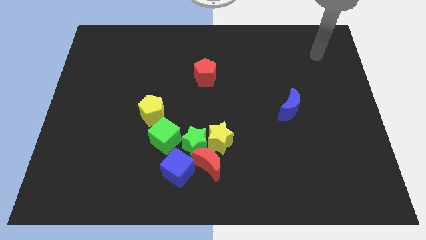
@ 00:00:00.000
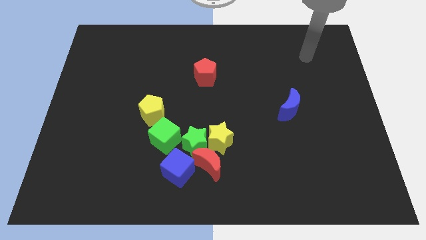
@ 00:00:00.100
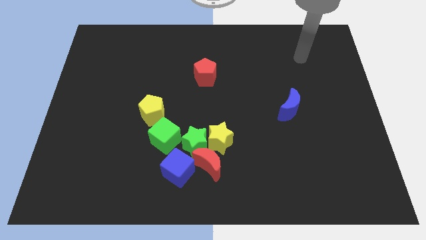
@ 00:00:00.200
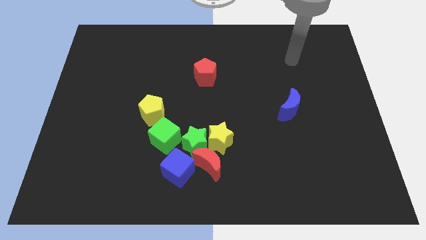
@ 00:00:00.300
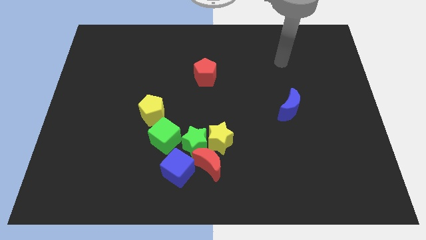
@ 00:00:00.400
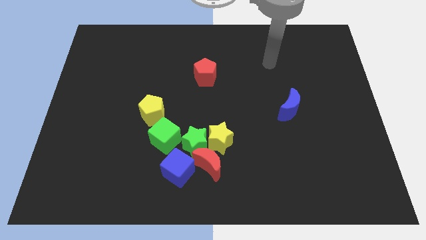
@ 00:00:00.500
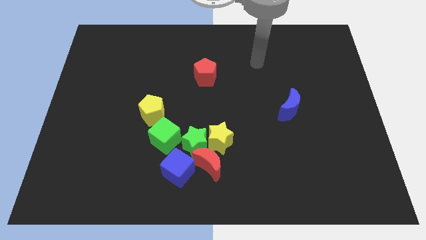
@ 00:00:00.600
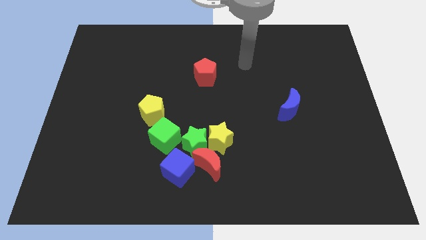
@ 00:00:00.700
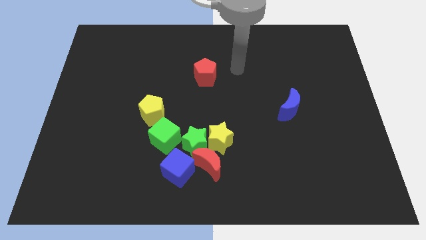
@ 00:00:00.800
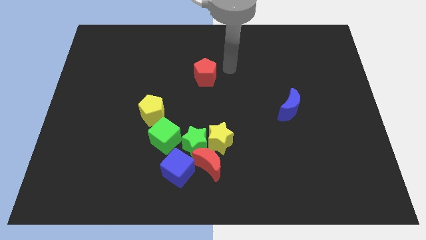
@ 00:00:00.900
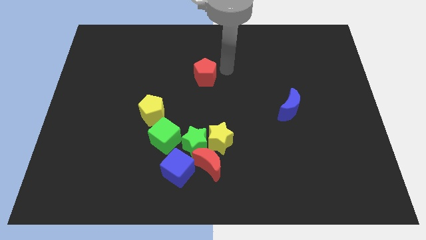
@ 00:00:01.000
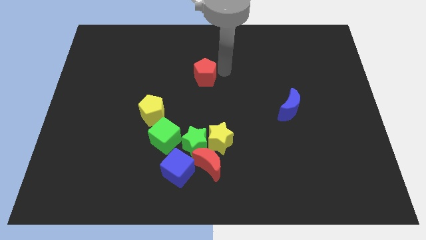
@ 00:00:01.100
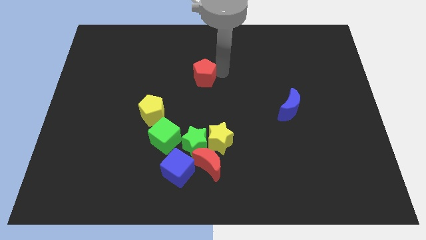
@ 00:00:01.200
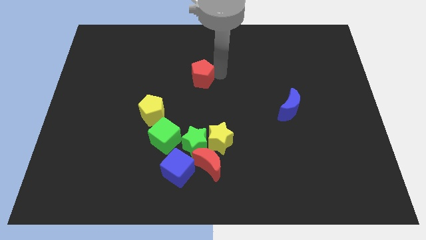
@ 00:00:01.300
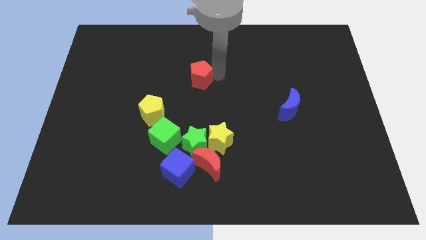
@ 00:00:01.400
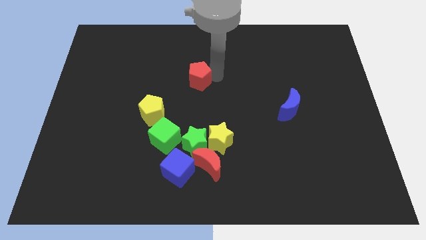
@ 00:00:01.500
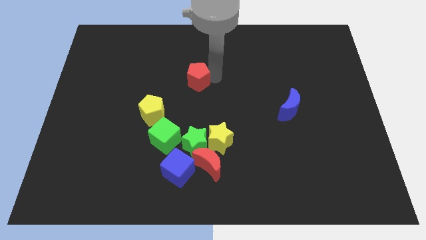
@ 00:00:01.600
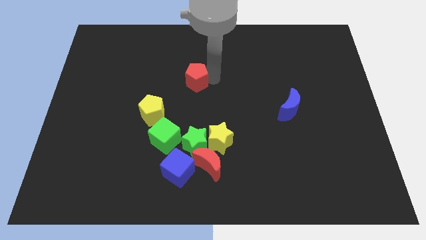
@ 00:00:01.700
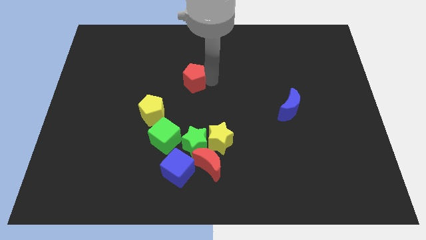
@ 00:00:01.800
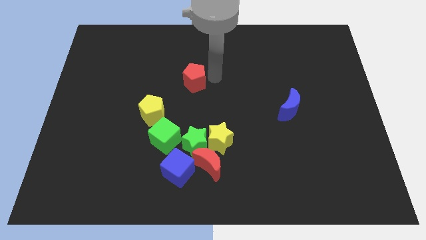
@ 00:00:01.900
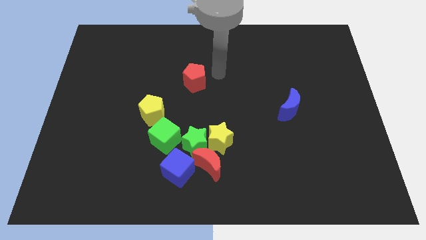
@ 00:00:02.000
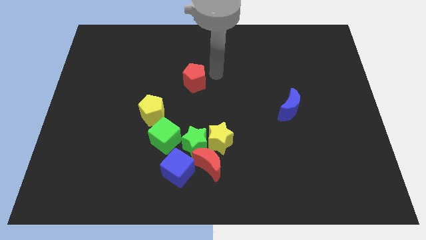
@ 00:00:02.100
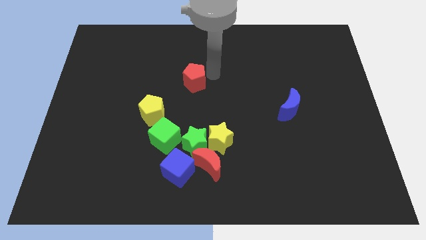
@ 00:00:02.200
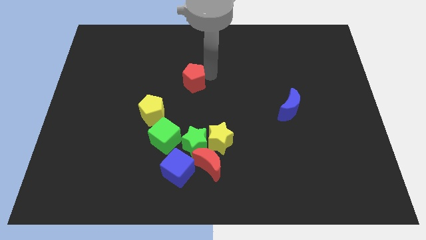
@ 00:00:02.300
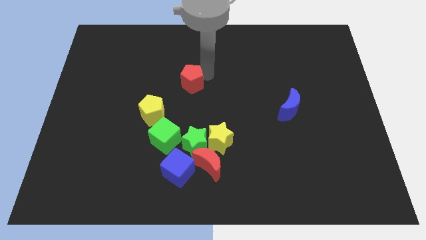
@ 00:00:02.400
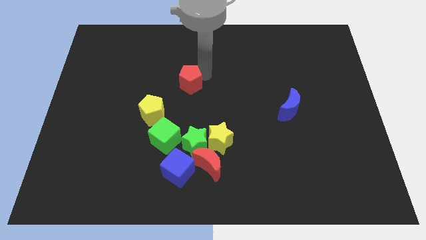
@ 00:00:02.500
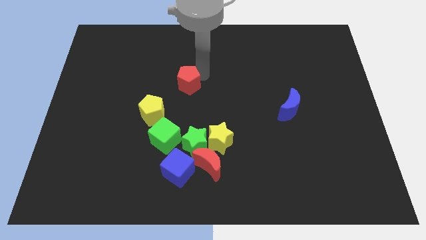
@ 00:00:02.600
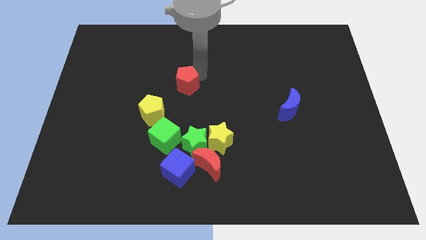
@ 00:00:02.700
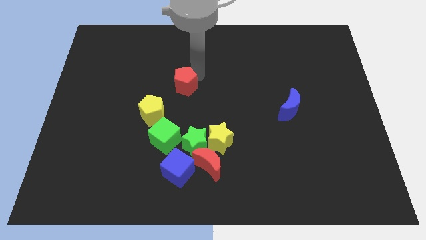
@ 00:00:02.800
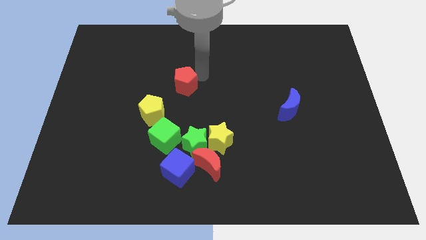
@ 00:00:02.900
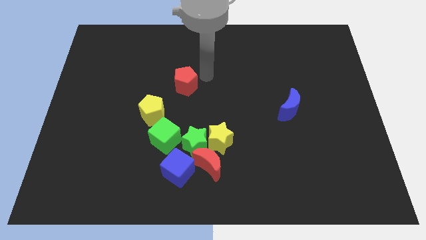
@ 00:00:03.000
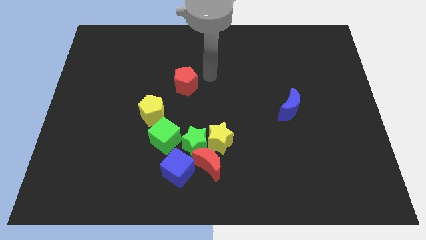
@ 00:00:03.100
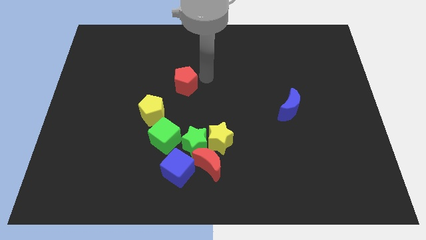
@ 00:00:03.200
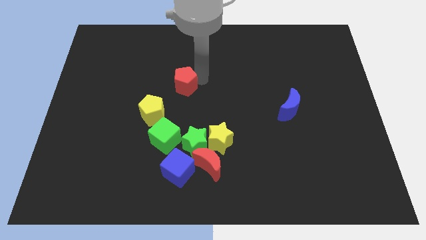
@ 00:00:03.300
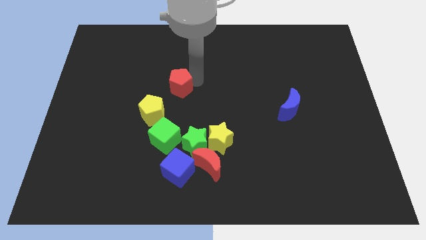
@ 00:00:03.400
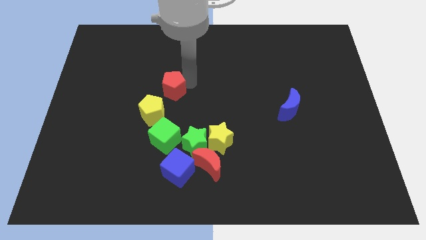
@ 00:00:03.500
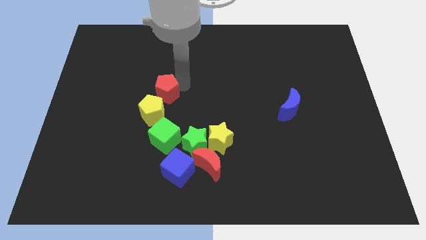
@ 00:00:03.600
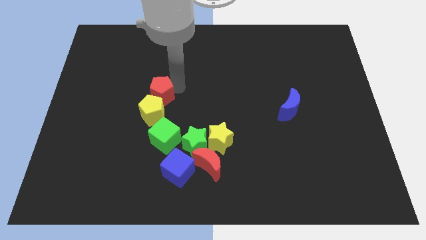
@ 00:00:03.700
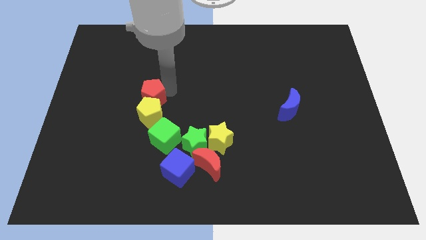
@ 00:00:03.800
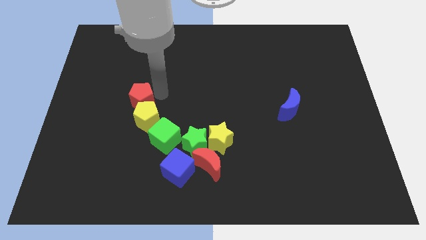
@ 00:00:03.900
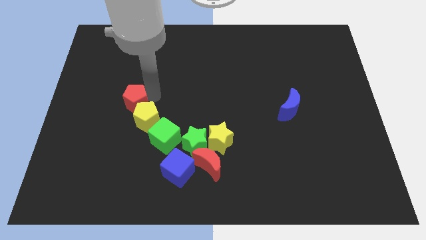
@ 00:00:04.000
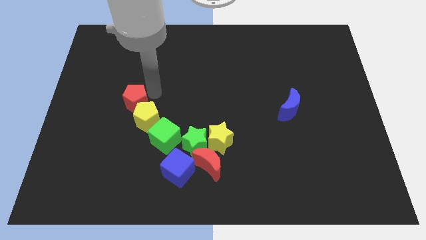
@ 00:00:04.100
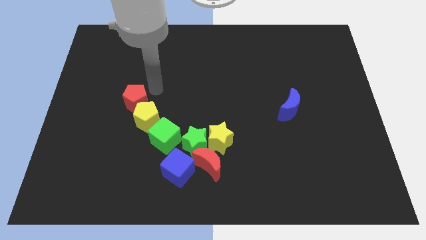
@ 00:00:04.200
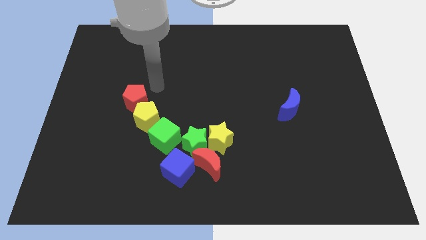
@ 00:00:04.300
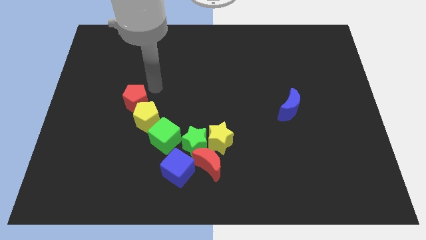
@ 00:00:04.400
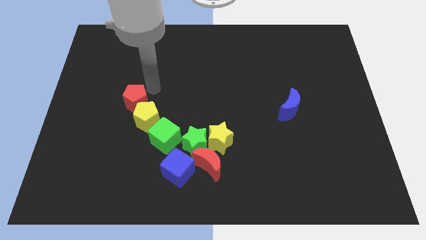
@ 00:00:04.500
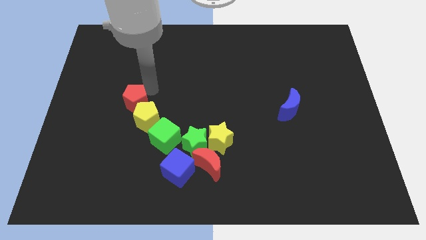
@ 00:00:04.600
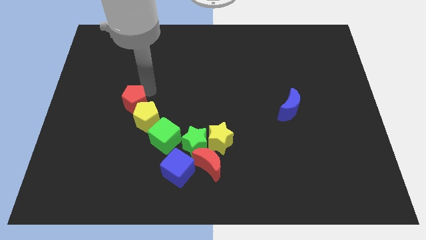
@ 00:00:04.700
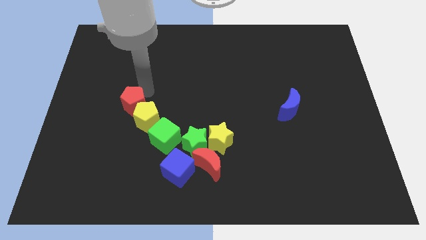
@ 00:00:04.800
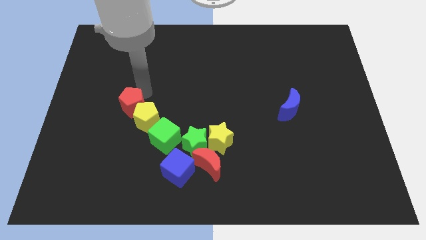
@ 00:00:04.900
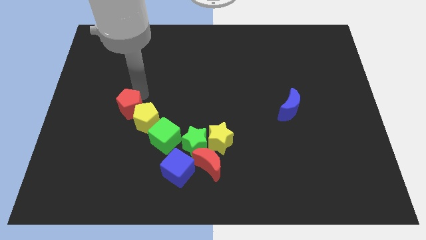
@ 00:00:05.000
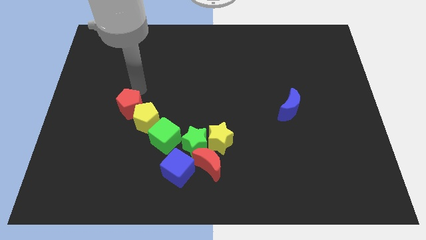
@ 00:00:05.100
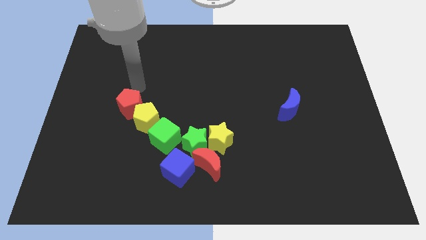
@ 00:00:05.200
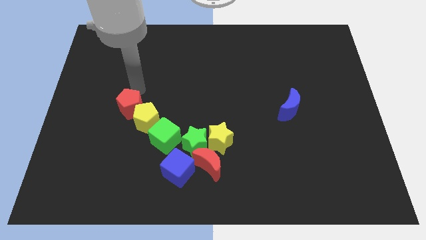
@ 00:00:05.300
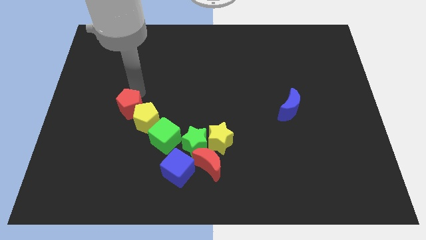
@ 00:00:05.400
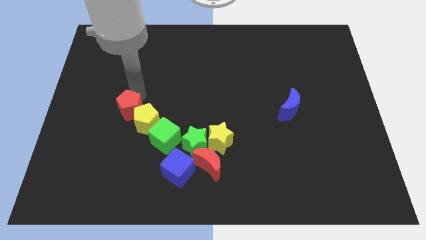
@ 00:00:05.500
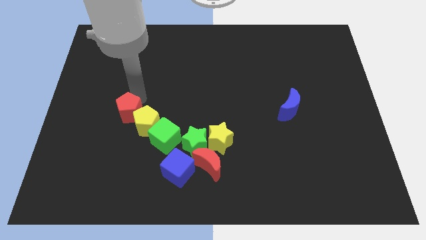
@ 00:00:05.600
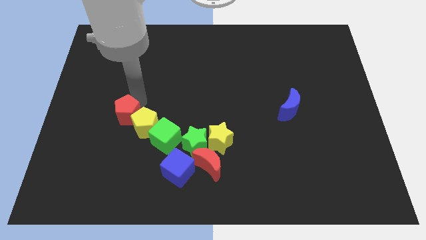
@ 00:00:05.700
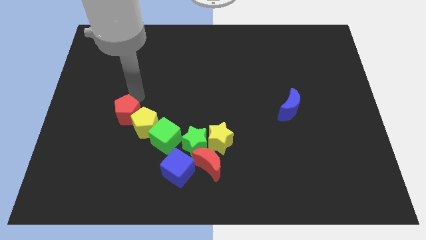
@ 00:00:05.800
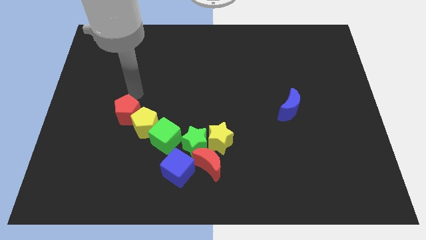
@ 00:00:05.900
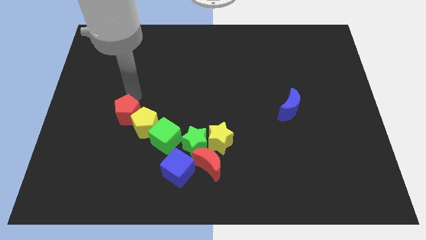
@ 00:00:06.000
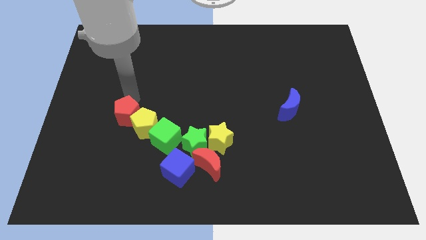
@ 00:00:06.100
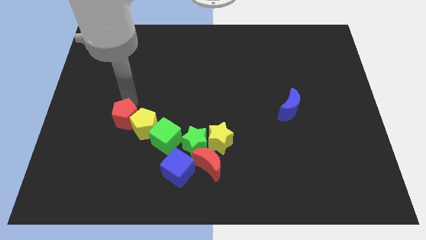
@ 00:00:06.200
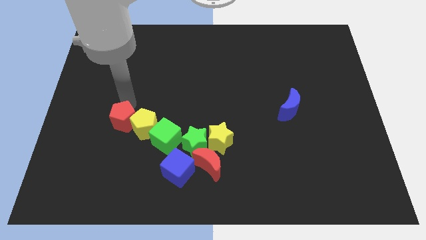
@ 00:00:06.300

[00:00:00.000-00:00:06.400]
put the red pentagon to the bottom left side of the yellow pentagon
